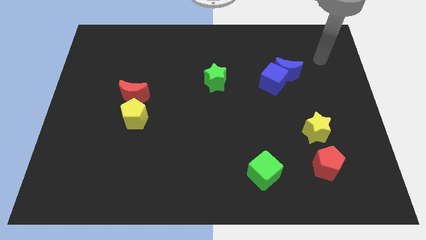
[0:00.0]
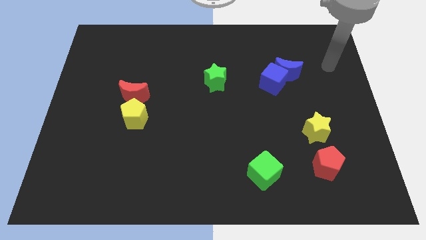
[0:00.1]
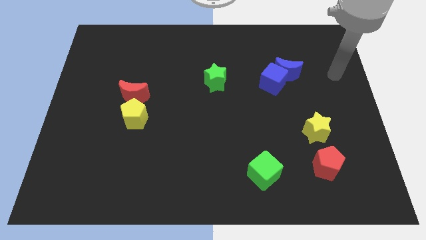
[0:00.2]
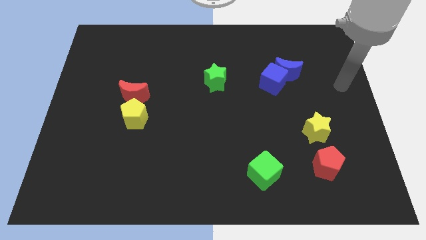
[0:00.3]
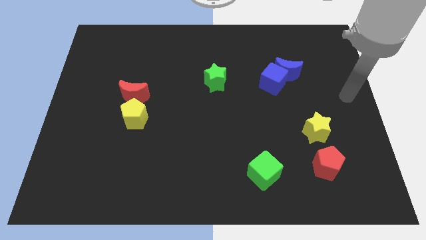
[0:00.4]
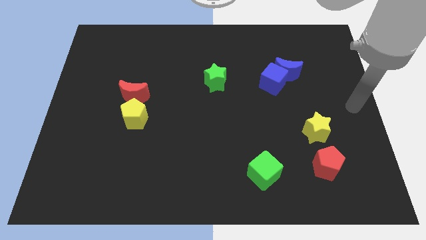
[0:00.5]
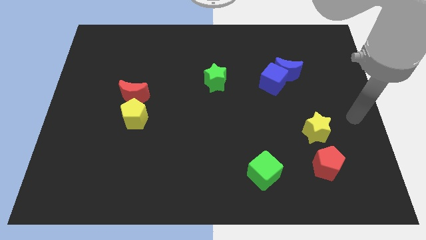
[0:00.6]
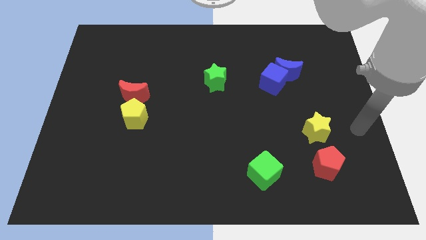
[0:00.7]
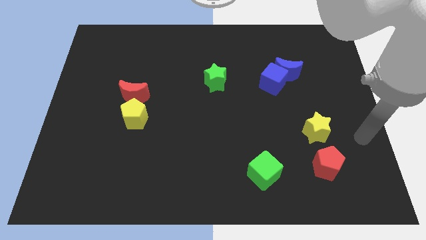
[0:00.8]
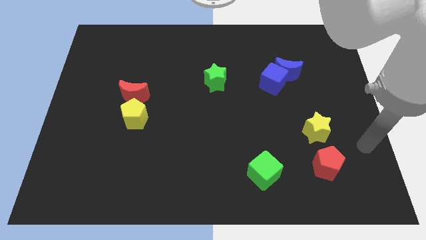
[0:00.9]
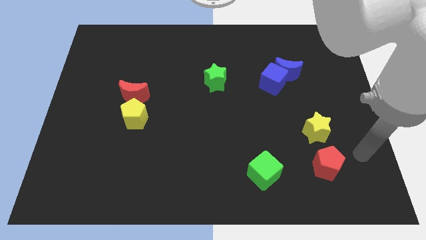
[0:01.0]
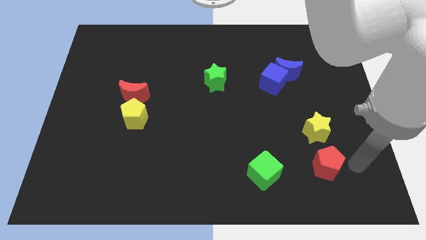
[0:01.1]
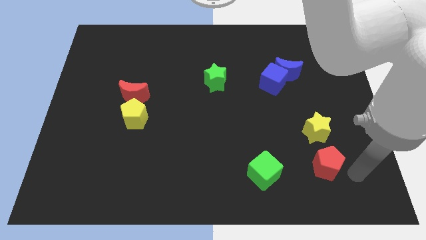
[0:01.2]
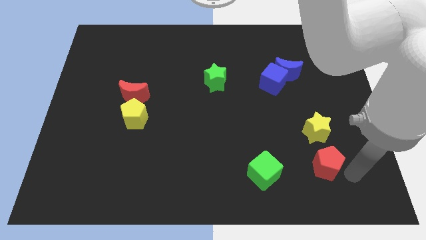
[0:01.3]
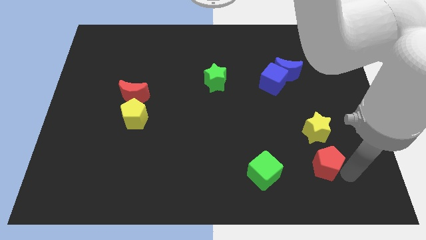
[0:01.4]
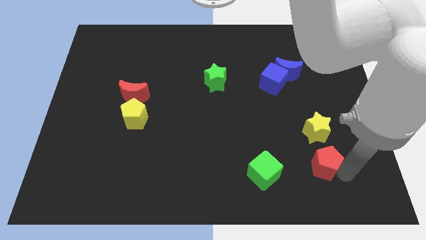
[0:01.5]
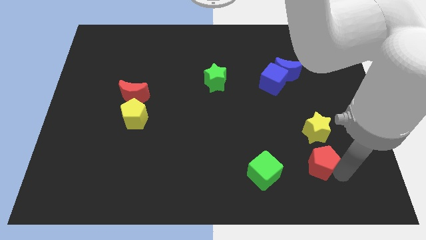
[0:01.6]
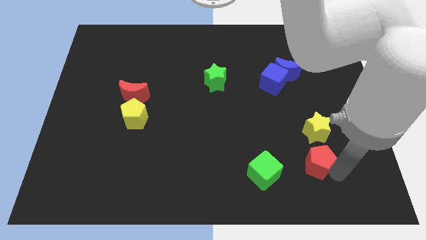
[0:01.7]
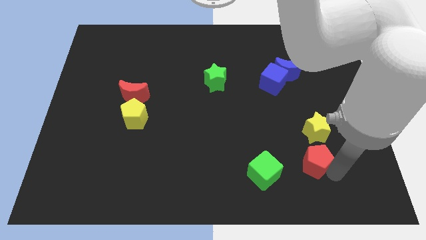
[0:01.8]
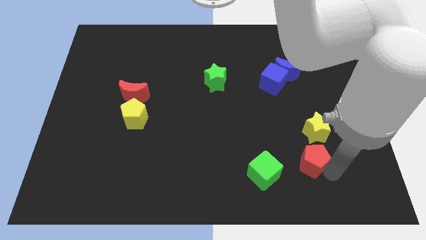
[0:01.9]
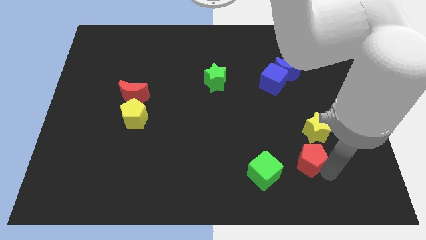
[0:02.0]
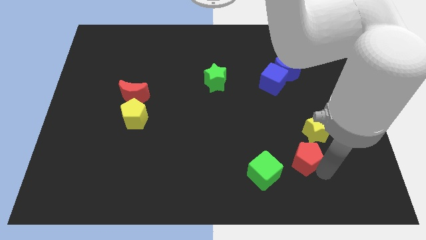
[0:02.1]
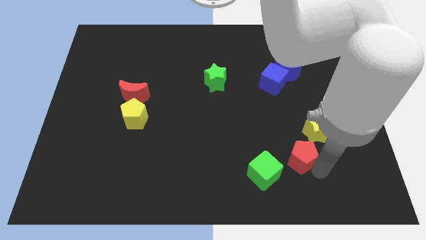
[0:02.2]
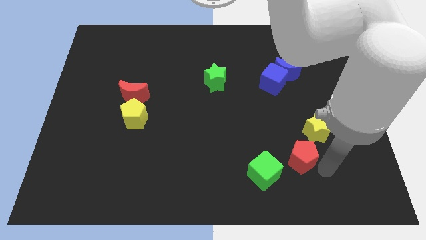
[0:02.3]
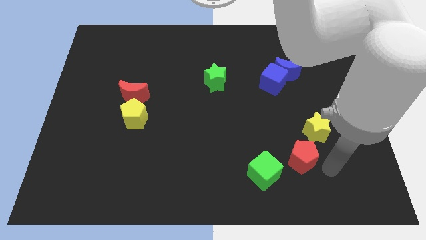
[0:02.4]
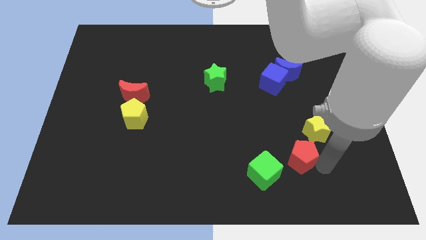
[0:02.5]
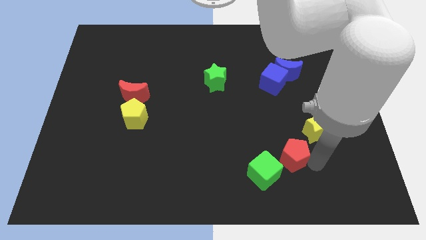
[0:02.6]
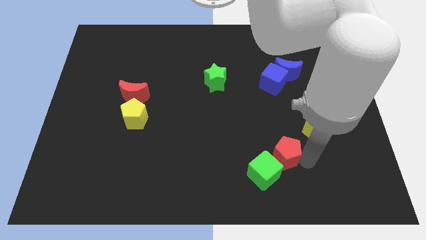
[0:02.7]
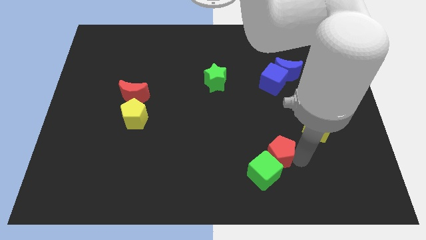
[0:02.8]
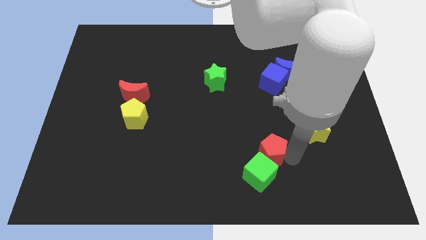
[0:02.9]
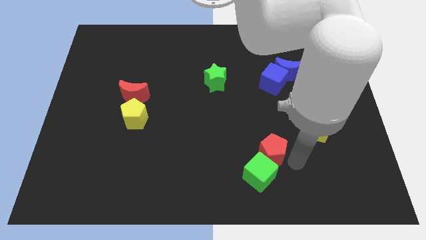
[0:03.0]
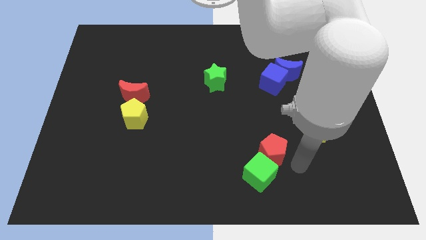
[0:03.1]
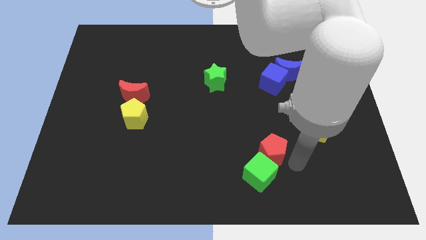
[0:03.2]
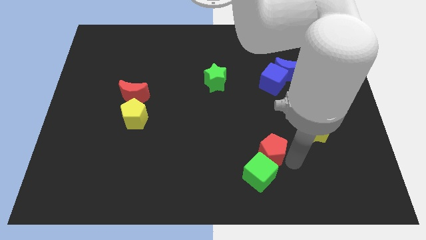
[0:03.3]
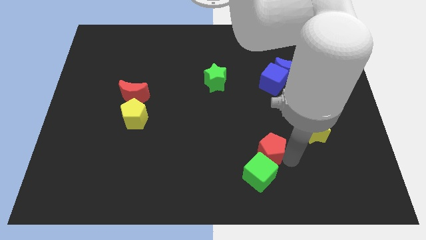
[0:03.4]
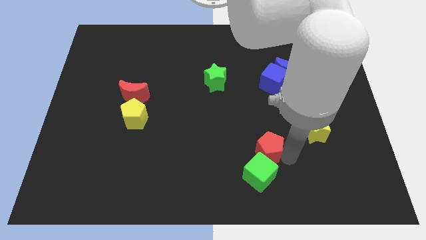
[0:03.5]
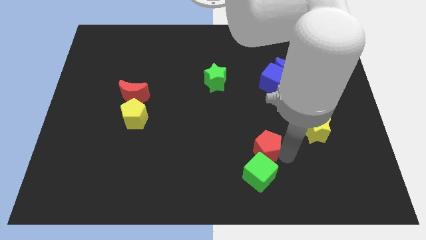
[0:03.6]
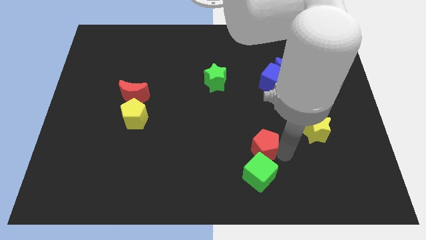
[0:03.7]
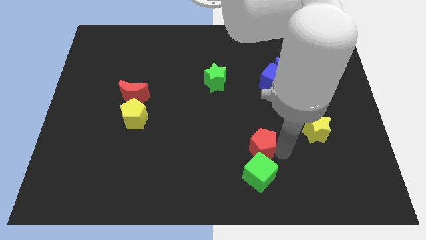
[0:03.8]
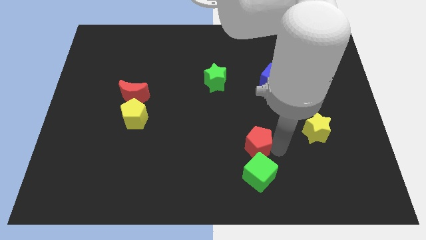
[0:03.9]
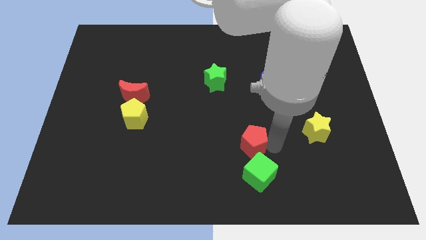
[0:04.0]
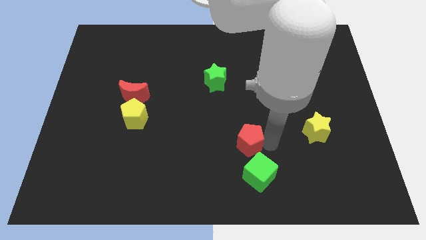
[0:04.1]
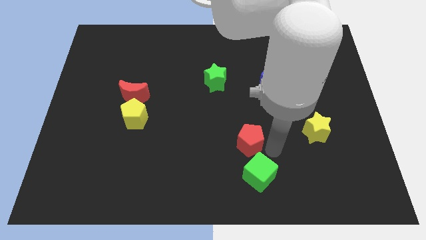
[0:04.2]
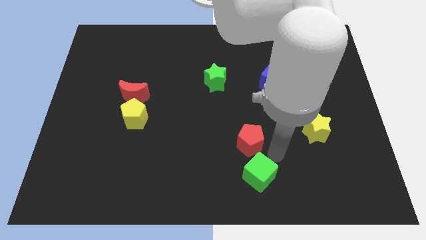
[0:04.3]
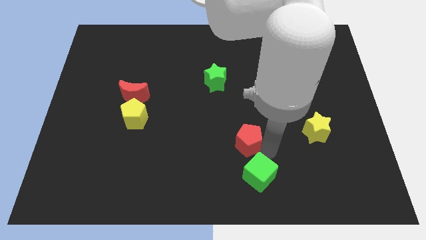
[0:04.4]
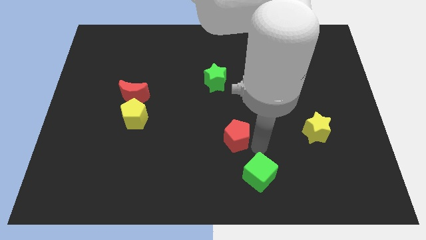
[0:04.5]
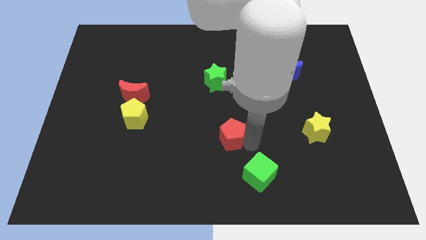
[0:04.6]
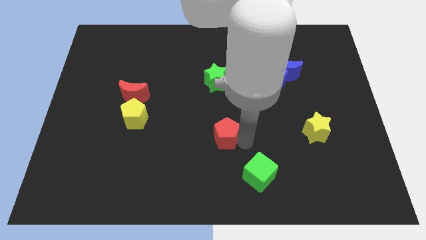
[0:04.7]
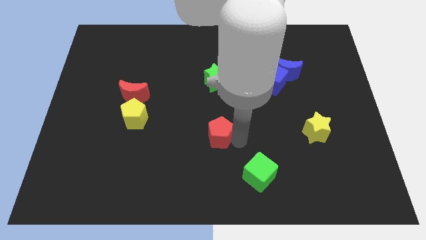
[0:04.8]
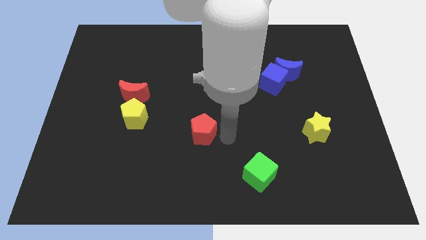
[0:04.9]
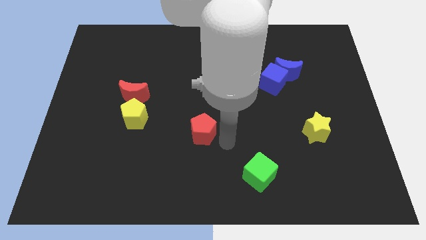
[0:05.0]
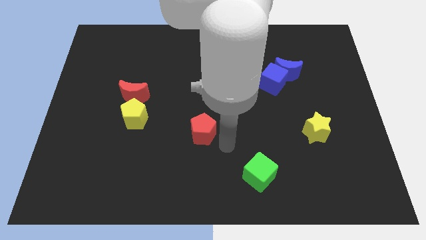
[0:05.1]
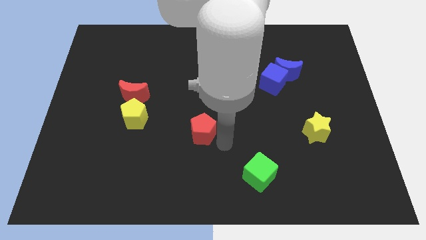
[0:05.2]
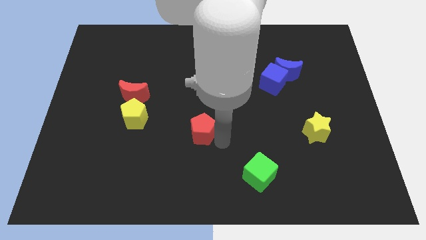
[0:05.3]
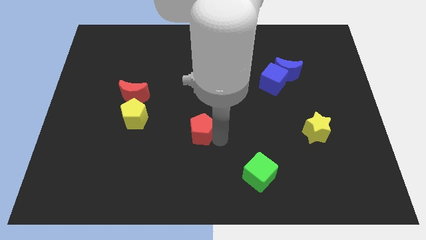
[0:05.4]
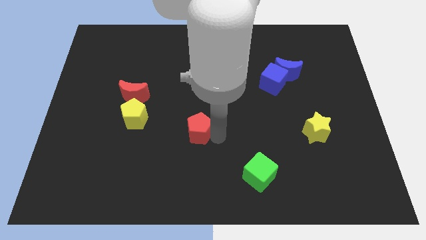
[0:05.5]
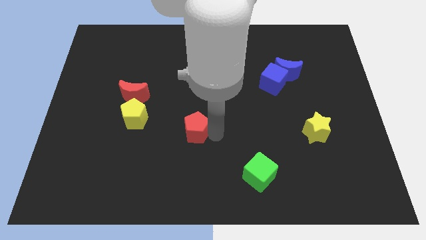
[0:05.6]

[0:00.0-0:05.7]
push the red pentagon to the right side of the yellow pentagon

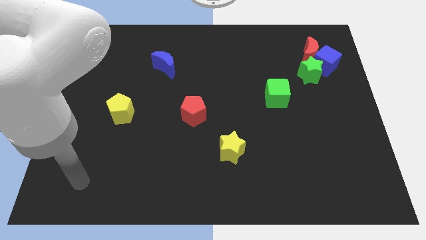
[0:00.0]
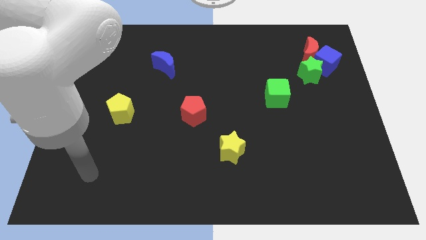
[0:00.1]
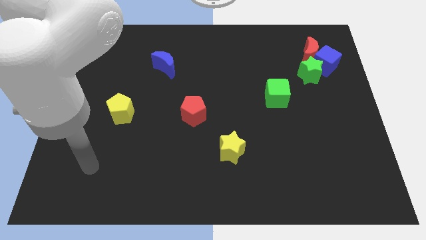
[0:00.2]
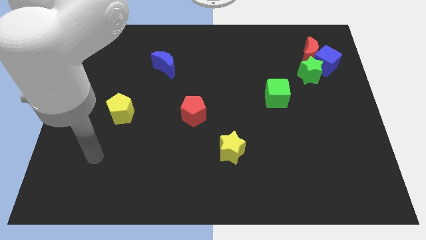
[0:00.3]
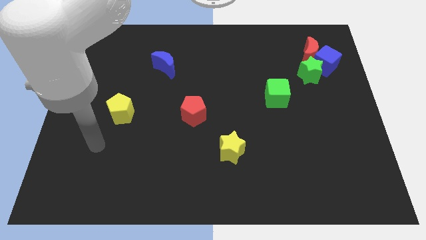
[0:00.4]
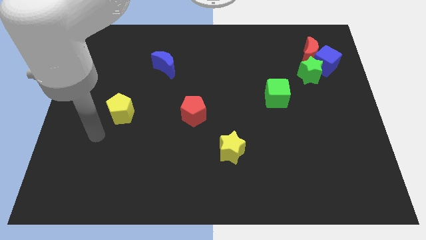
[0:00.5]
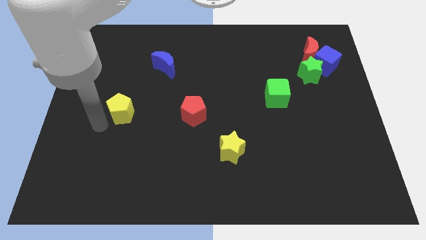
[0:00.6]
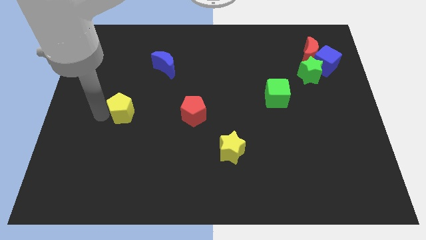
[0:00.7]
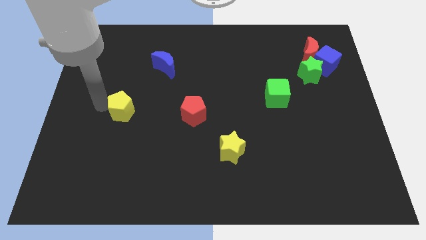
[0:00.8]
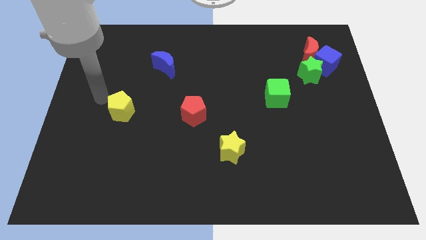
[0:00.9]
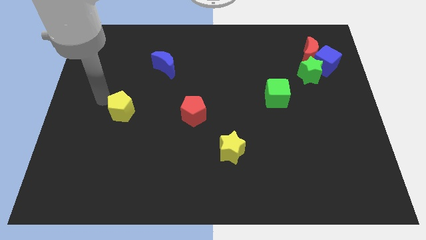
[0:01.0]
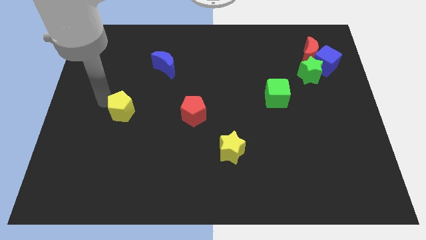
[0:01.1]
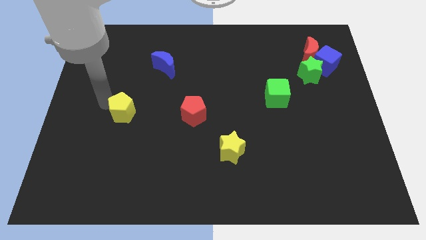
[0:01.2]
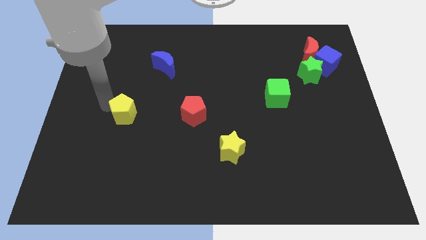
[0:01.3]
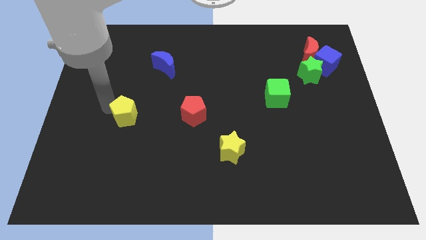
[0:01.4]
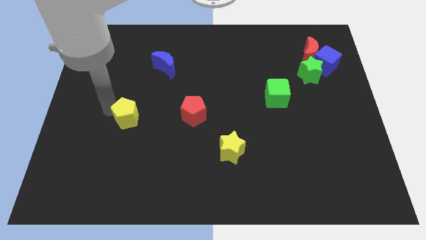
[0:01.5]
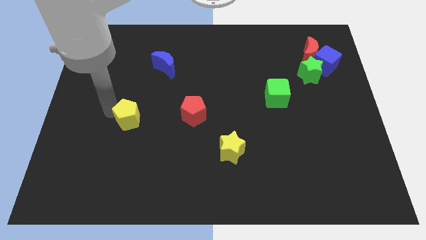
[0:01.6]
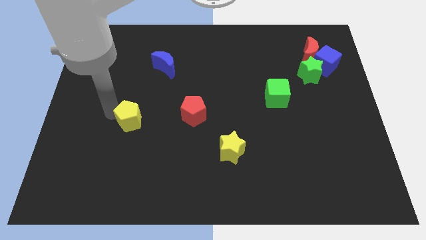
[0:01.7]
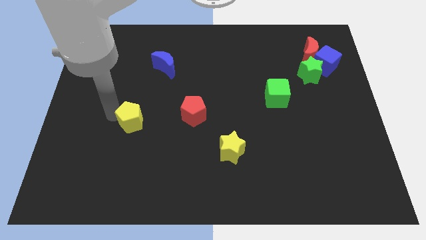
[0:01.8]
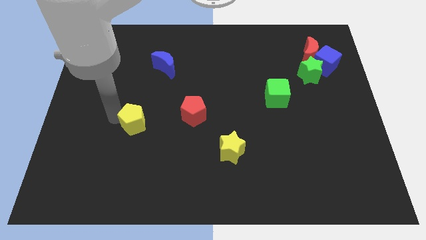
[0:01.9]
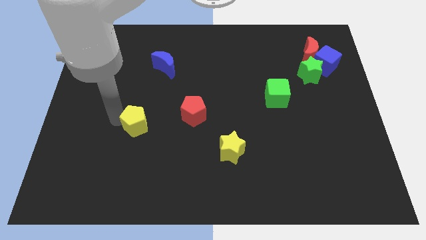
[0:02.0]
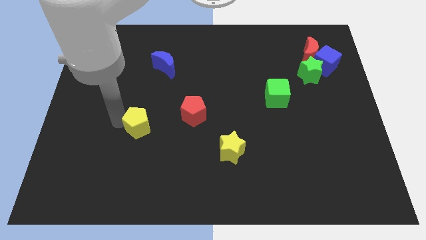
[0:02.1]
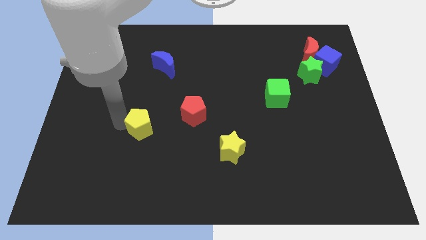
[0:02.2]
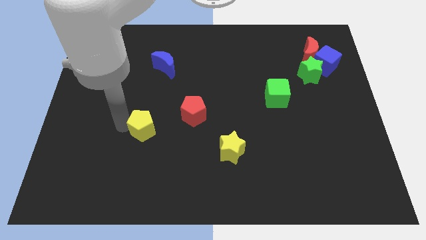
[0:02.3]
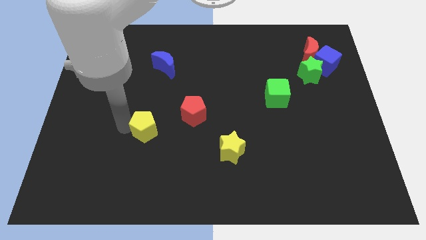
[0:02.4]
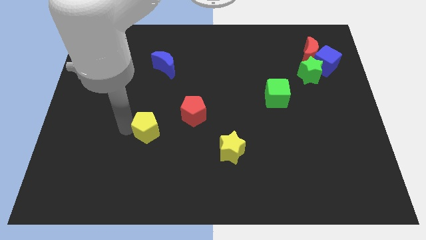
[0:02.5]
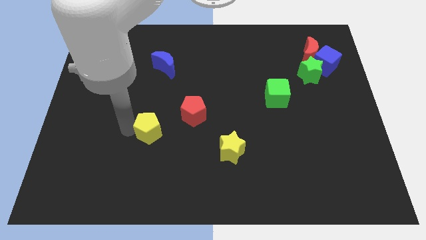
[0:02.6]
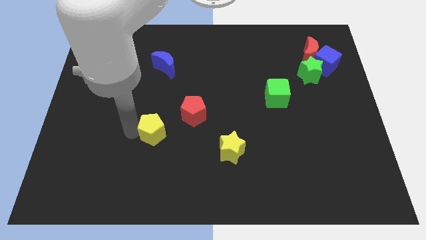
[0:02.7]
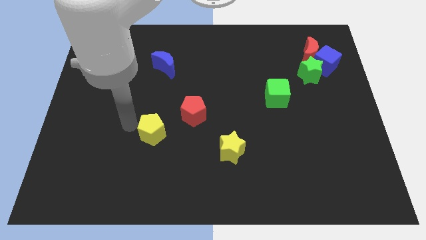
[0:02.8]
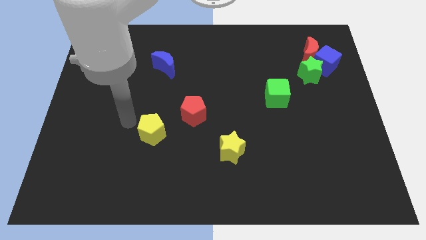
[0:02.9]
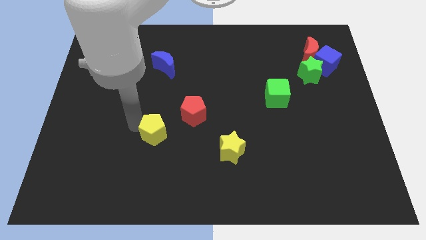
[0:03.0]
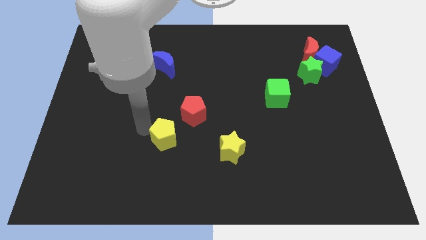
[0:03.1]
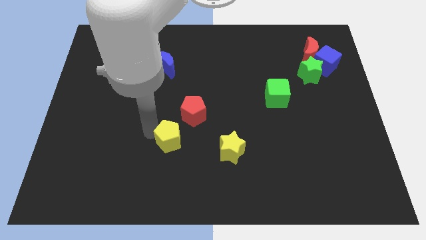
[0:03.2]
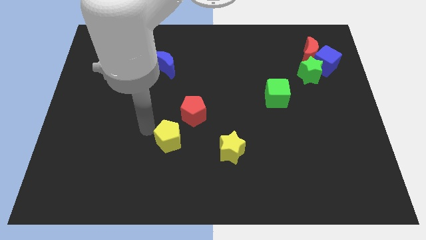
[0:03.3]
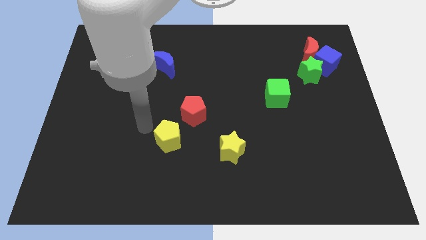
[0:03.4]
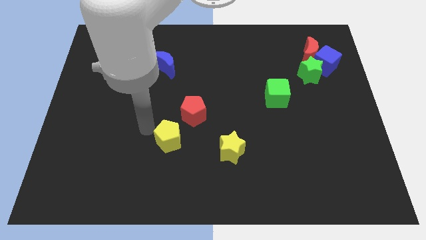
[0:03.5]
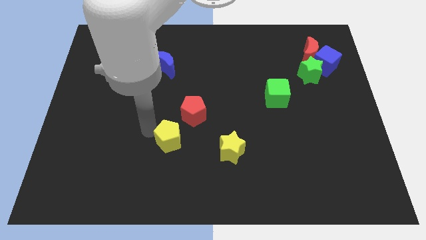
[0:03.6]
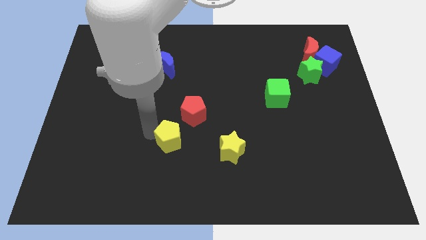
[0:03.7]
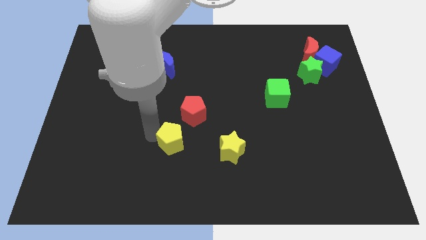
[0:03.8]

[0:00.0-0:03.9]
put the yellow pentagon to the bottom of the red pentagon
